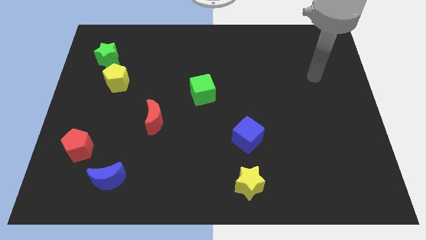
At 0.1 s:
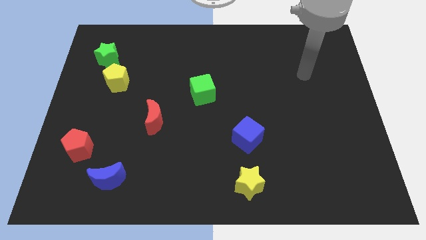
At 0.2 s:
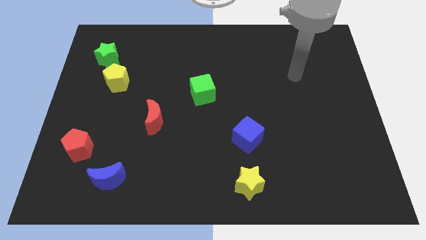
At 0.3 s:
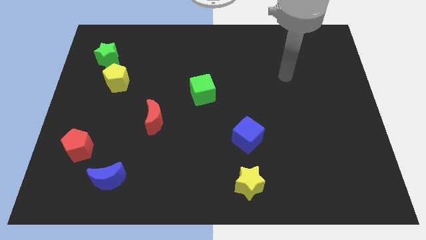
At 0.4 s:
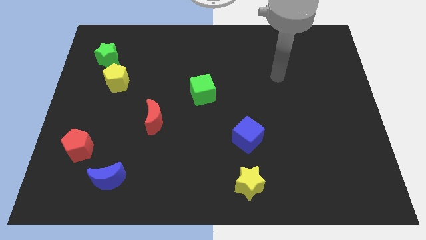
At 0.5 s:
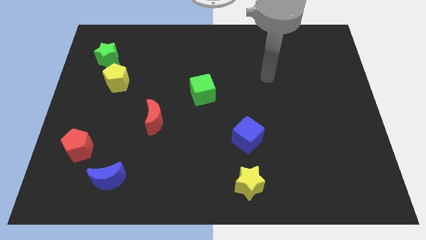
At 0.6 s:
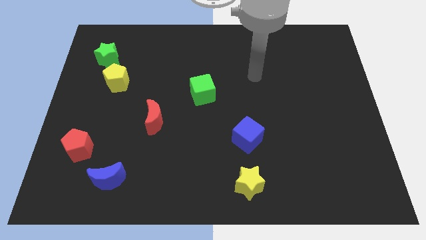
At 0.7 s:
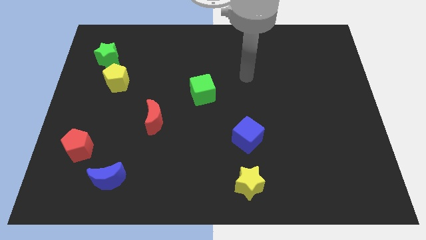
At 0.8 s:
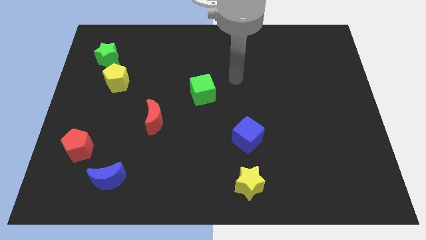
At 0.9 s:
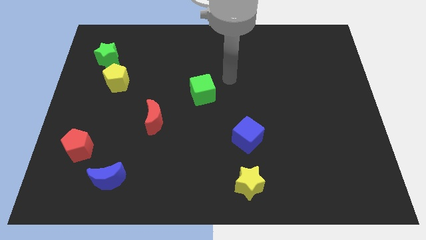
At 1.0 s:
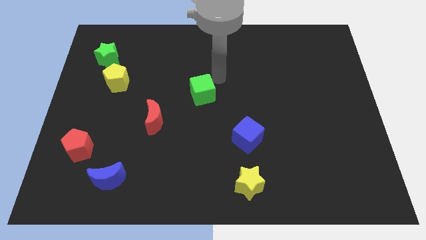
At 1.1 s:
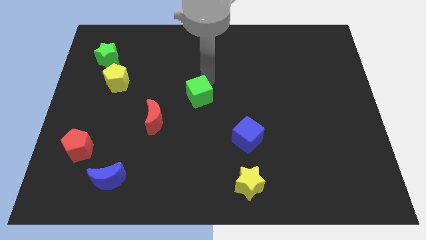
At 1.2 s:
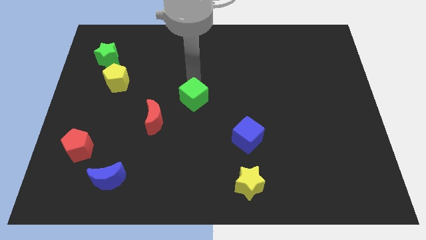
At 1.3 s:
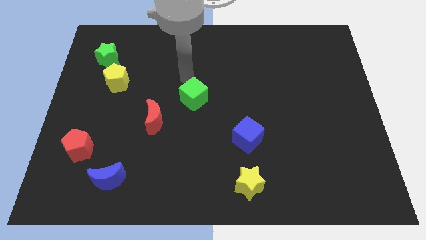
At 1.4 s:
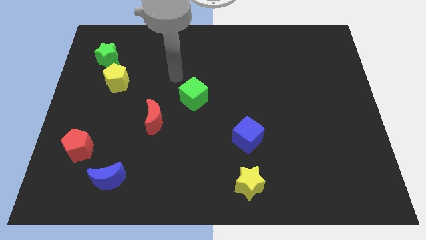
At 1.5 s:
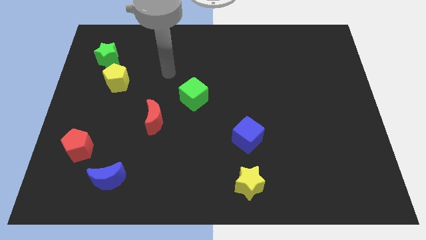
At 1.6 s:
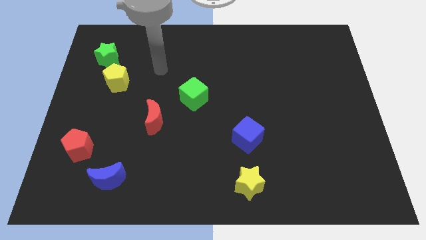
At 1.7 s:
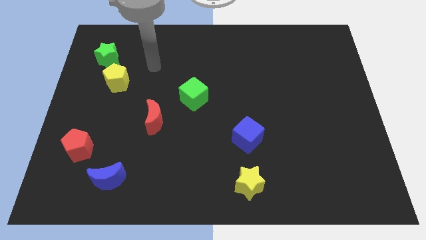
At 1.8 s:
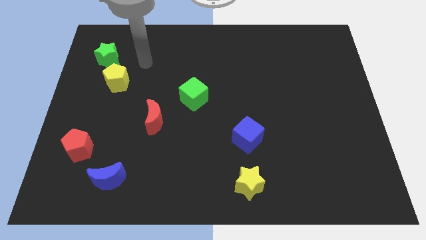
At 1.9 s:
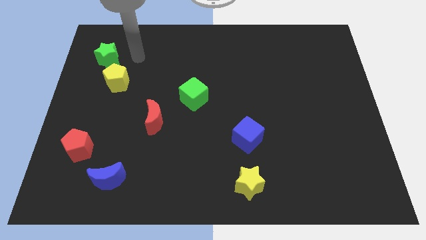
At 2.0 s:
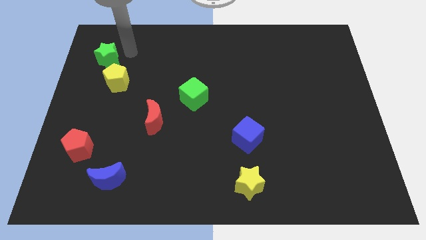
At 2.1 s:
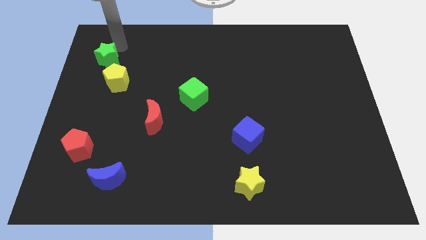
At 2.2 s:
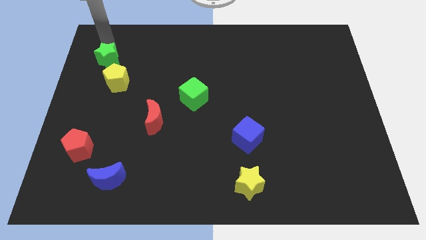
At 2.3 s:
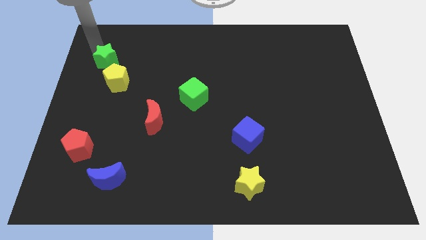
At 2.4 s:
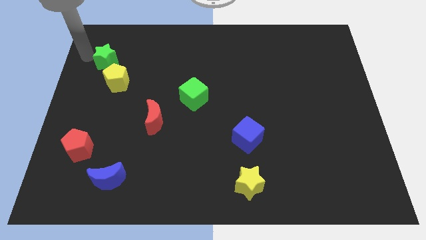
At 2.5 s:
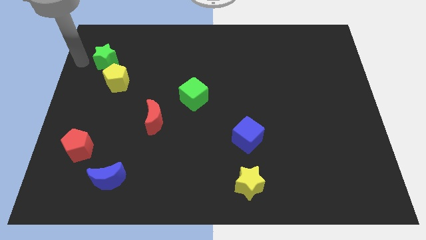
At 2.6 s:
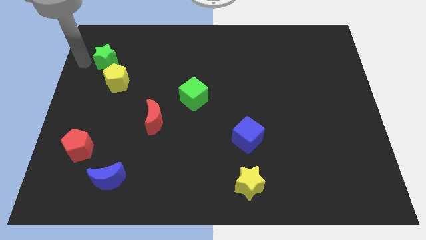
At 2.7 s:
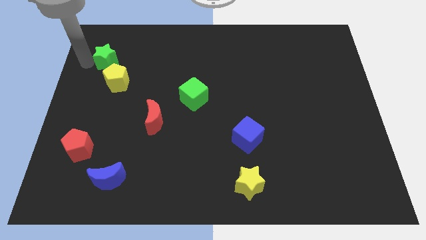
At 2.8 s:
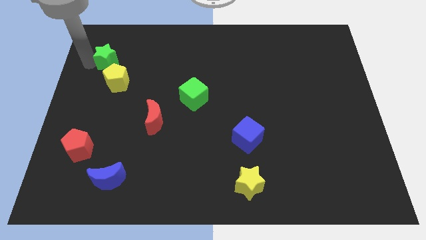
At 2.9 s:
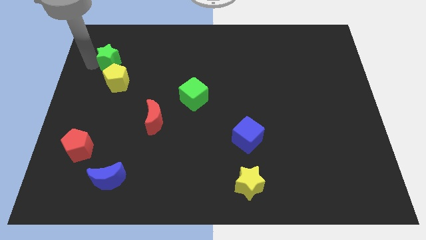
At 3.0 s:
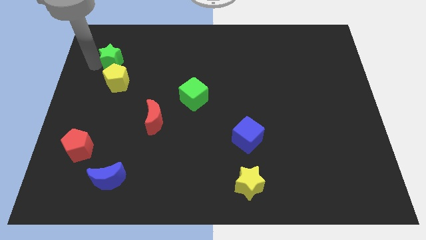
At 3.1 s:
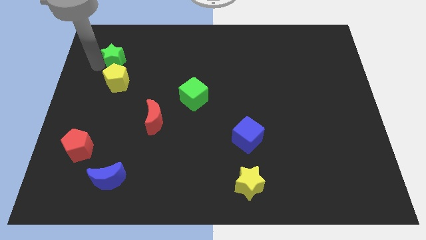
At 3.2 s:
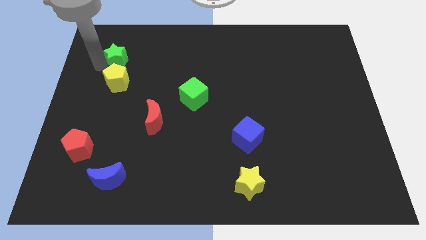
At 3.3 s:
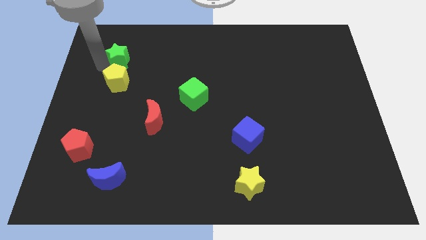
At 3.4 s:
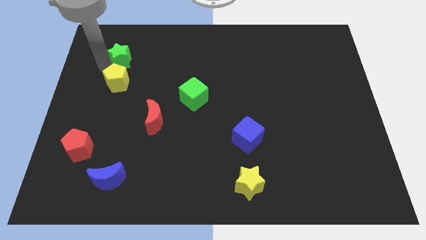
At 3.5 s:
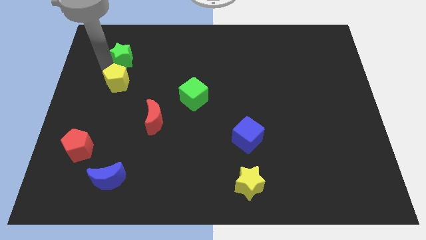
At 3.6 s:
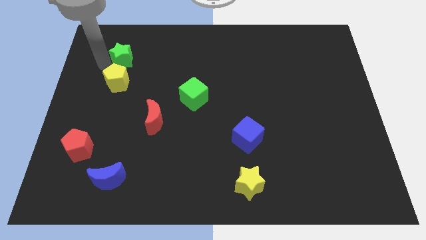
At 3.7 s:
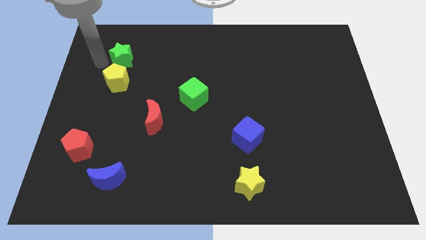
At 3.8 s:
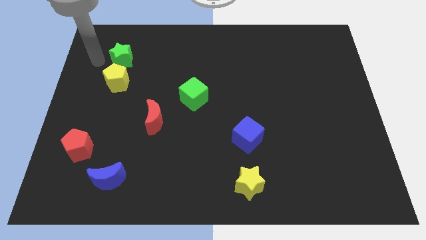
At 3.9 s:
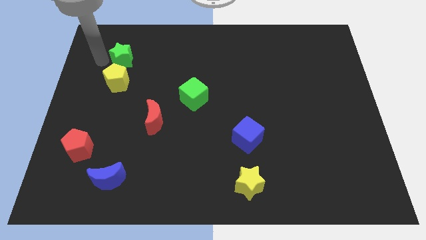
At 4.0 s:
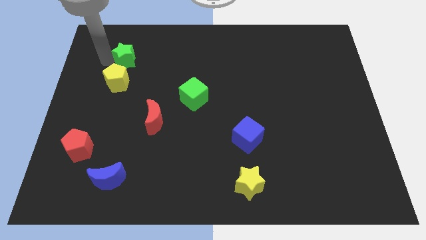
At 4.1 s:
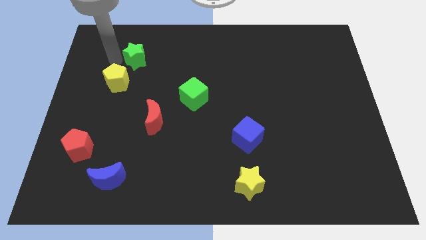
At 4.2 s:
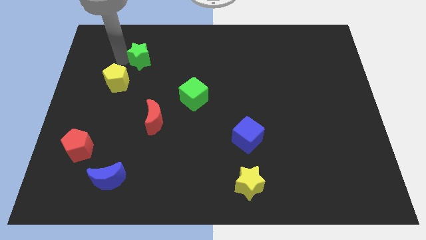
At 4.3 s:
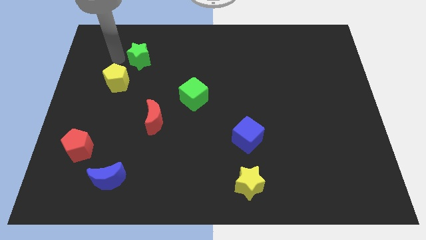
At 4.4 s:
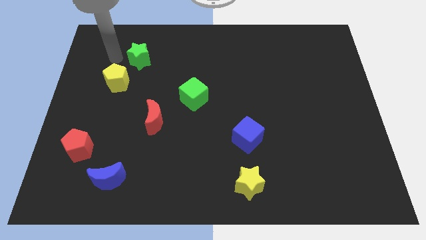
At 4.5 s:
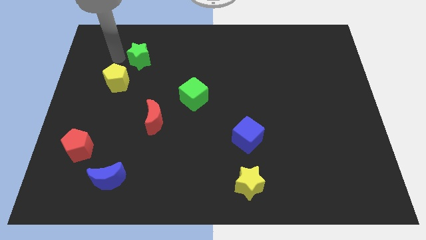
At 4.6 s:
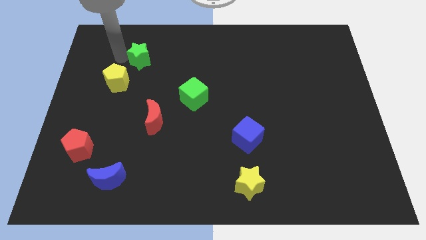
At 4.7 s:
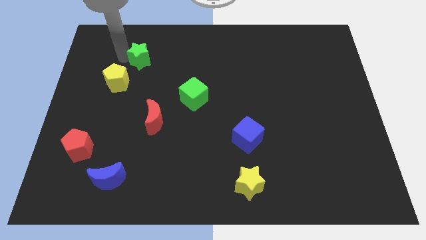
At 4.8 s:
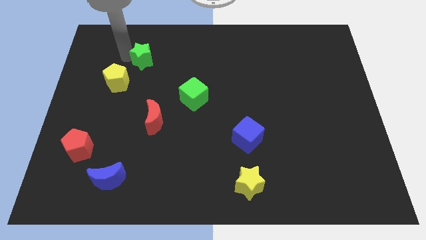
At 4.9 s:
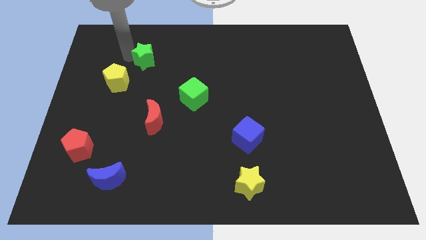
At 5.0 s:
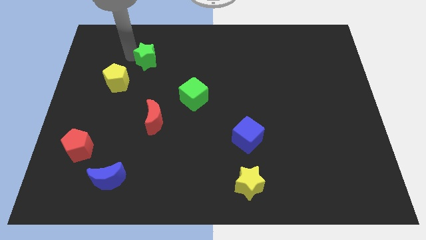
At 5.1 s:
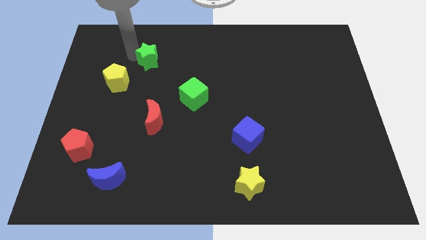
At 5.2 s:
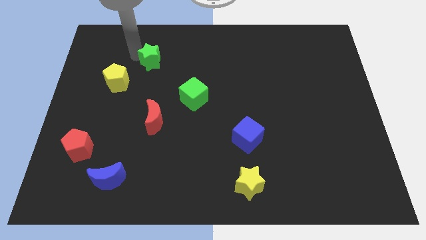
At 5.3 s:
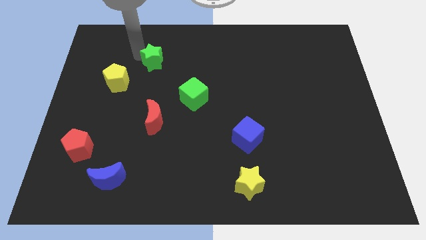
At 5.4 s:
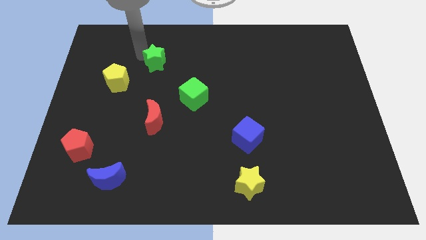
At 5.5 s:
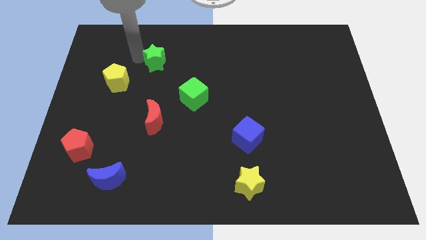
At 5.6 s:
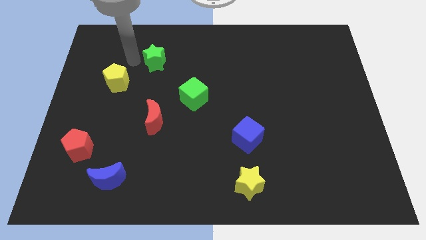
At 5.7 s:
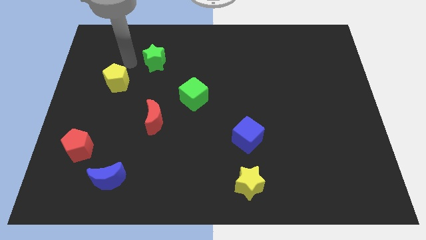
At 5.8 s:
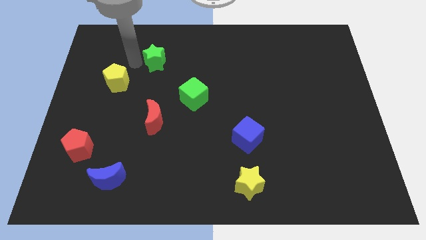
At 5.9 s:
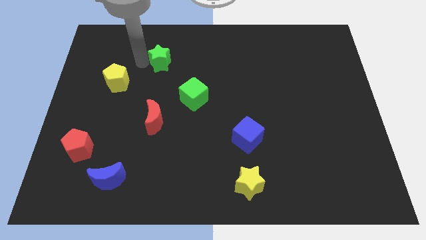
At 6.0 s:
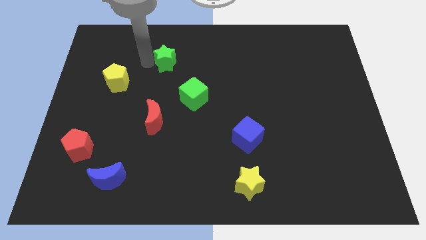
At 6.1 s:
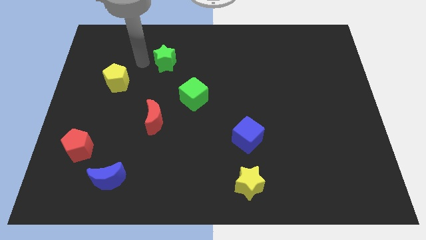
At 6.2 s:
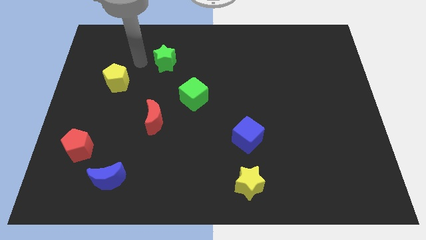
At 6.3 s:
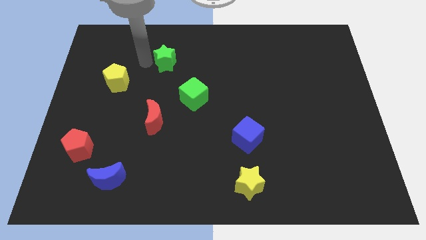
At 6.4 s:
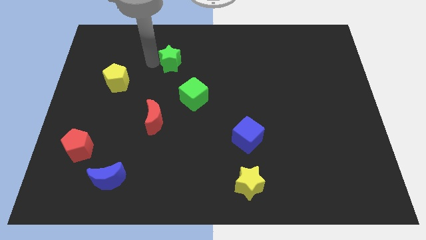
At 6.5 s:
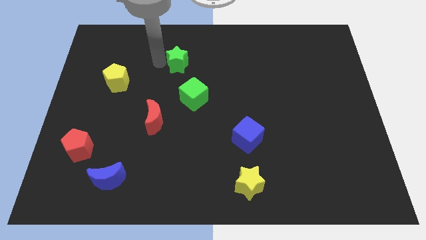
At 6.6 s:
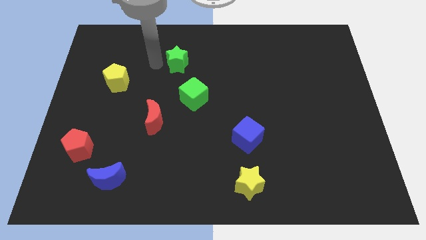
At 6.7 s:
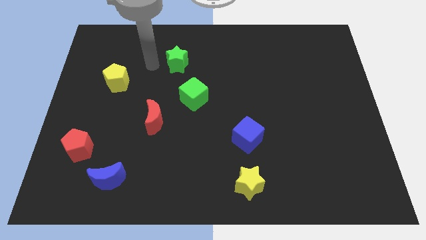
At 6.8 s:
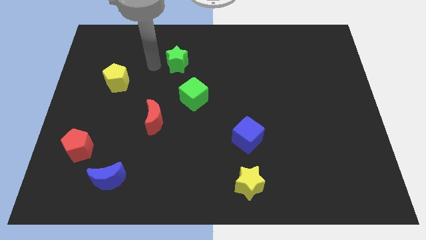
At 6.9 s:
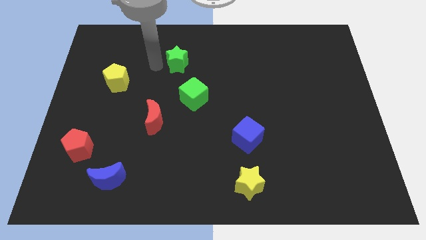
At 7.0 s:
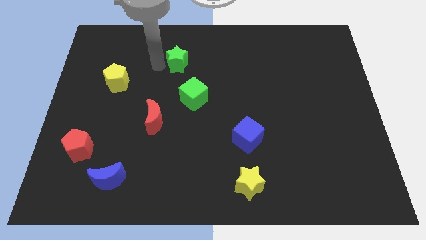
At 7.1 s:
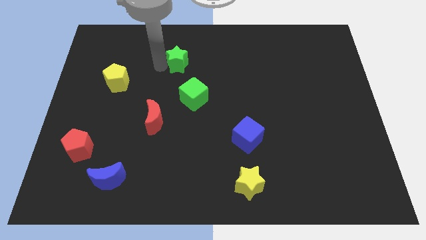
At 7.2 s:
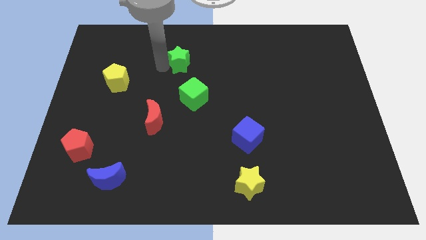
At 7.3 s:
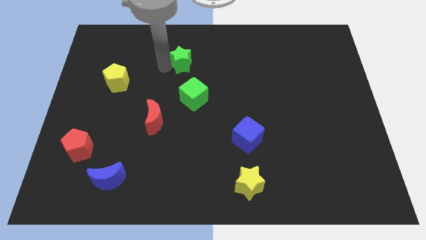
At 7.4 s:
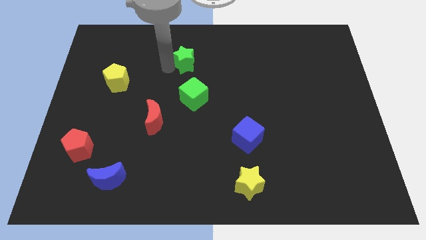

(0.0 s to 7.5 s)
slide the green star to the right

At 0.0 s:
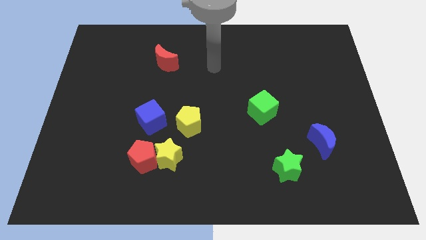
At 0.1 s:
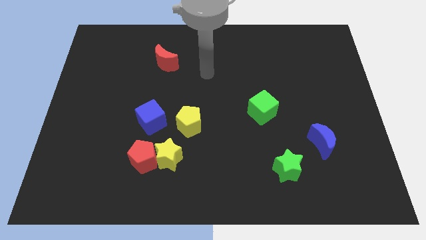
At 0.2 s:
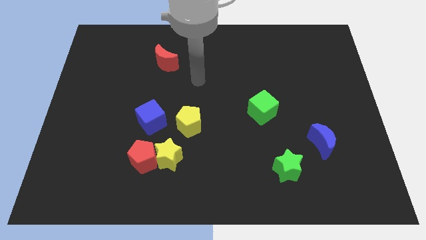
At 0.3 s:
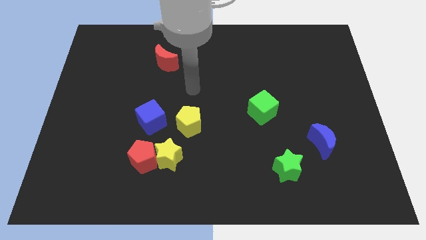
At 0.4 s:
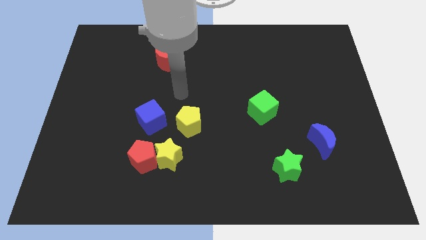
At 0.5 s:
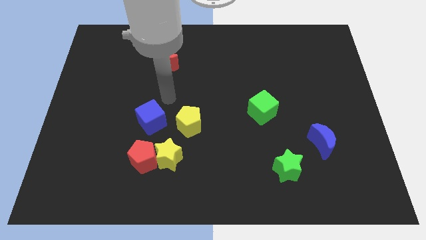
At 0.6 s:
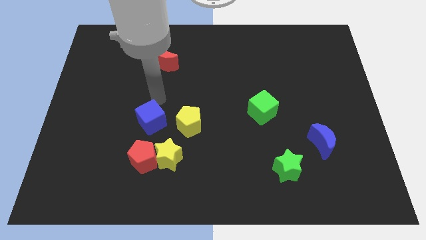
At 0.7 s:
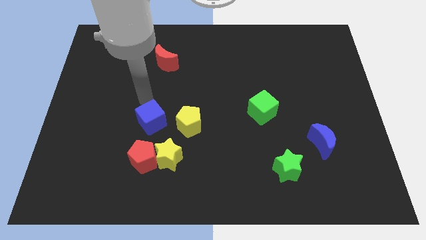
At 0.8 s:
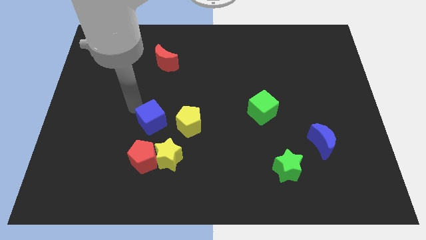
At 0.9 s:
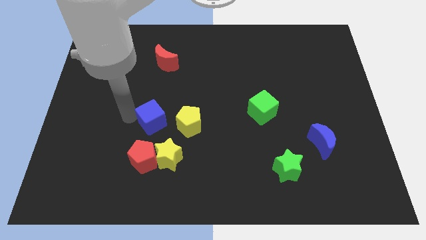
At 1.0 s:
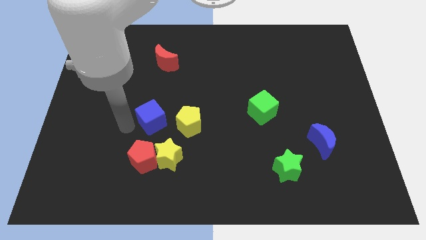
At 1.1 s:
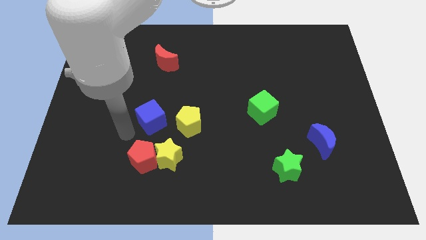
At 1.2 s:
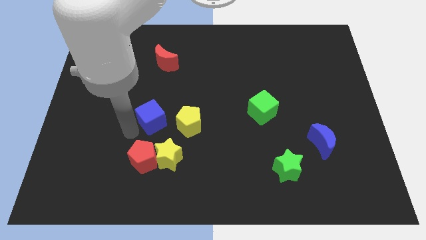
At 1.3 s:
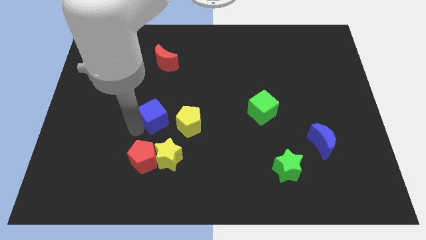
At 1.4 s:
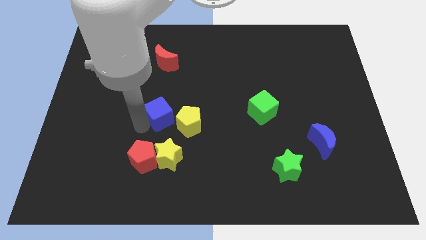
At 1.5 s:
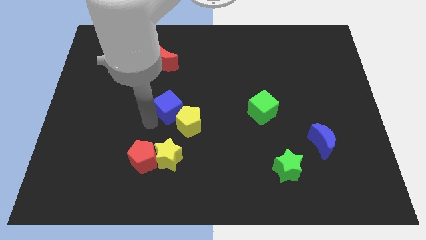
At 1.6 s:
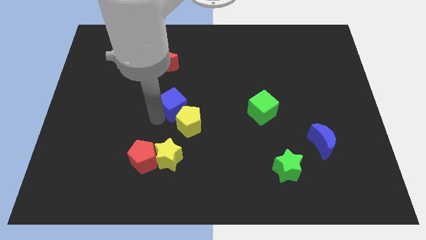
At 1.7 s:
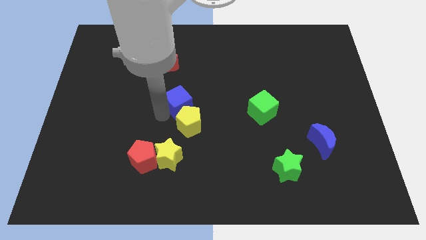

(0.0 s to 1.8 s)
slide the blue cube up and right diagonally a bit
